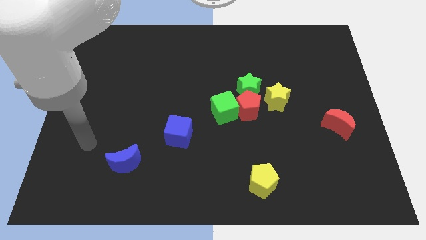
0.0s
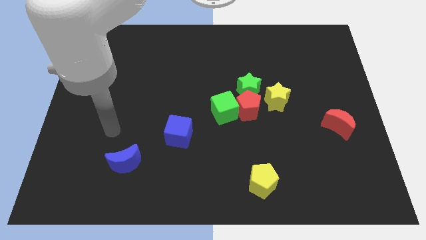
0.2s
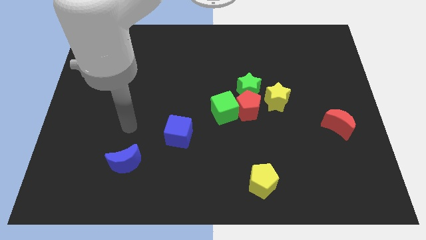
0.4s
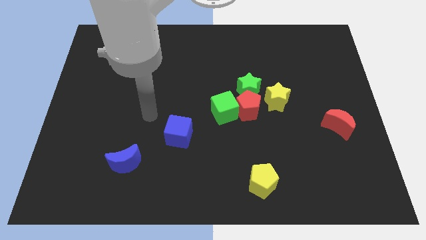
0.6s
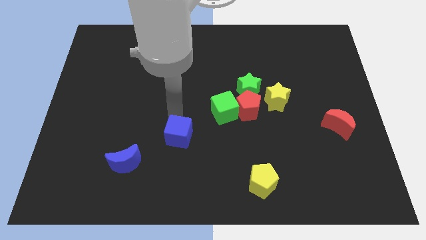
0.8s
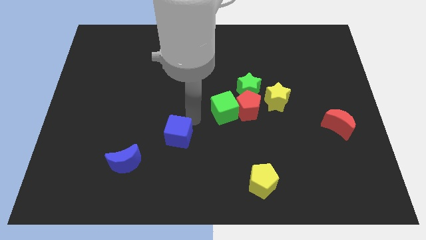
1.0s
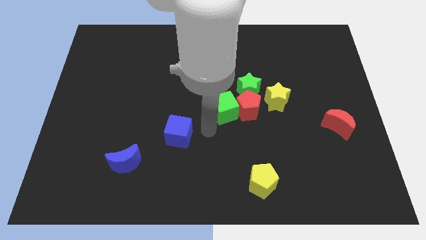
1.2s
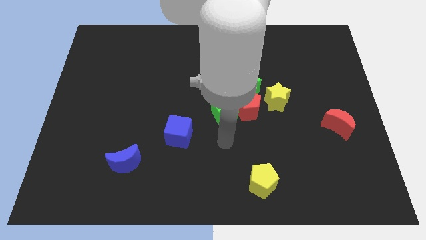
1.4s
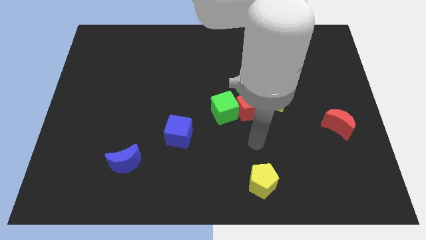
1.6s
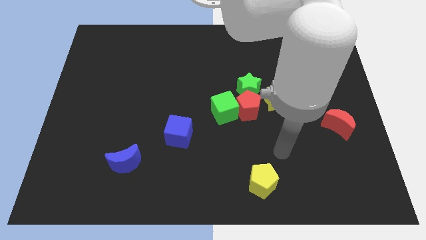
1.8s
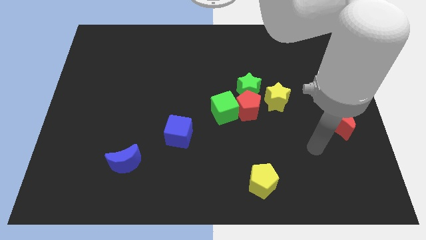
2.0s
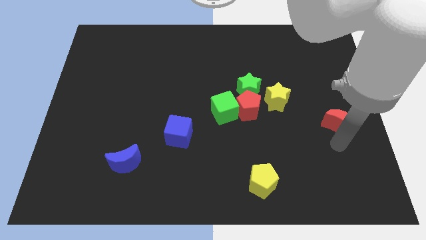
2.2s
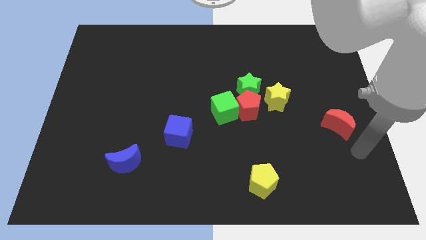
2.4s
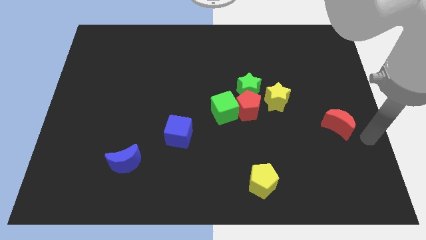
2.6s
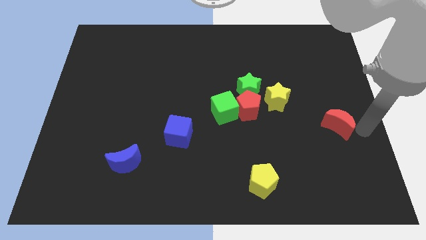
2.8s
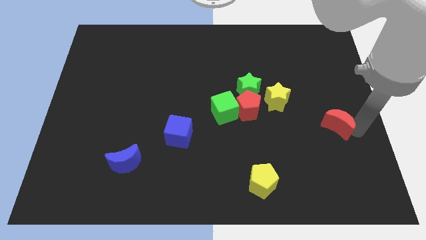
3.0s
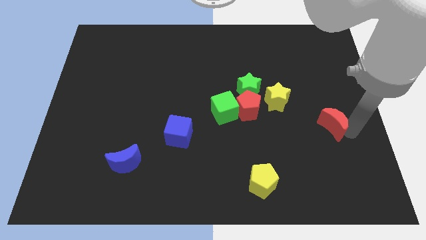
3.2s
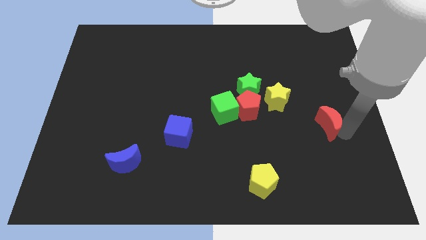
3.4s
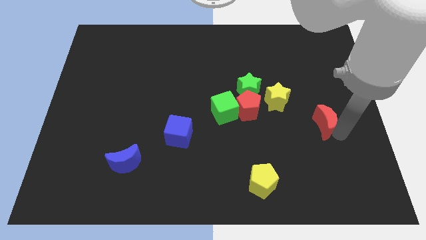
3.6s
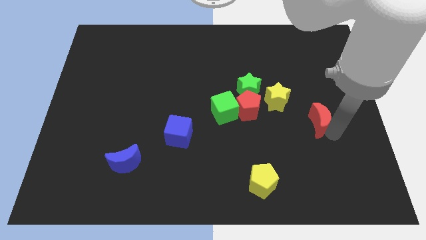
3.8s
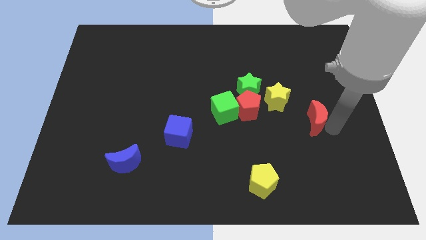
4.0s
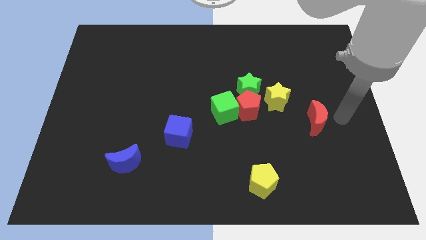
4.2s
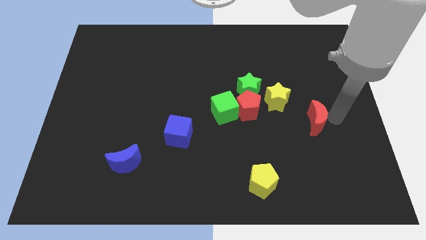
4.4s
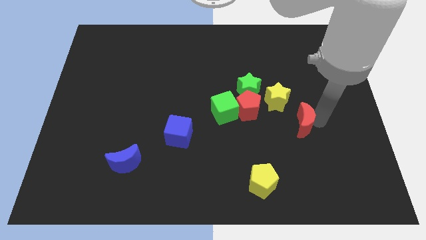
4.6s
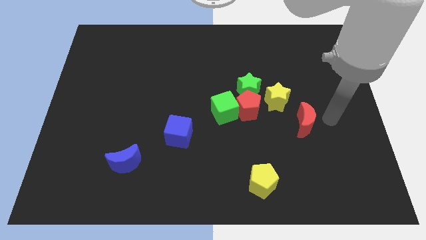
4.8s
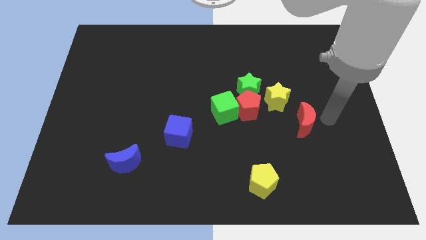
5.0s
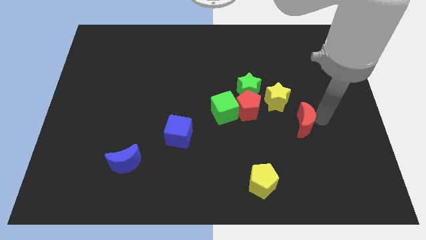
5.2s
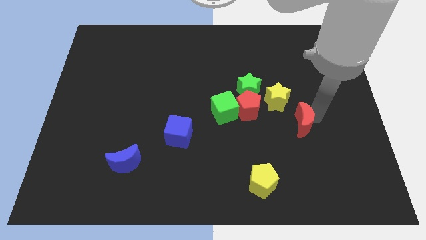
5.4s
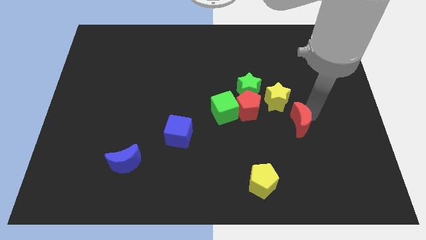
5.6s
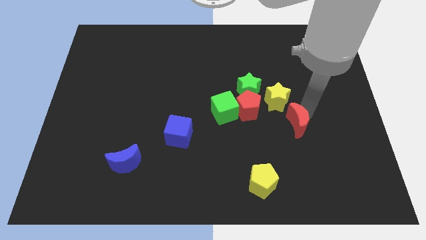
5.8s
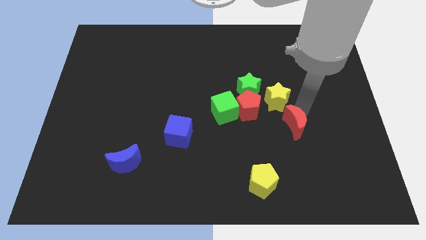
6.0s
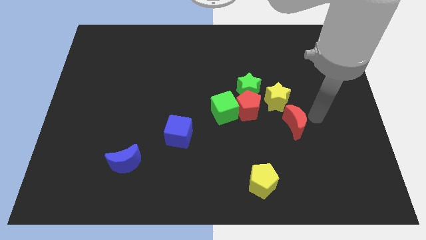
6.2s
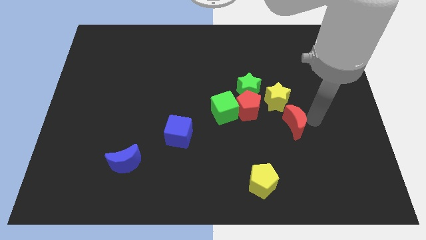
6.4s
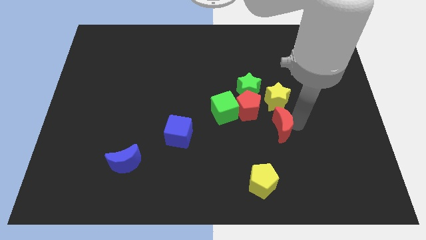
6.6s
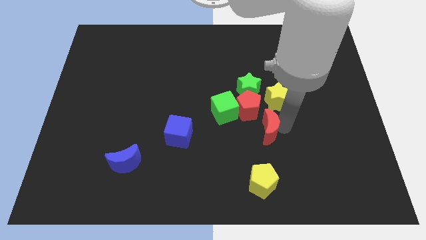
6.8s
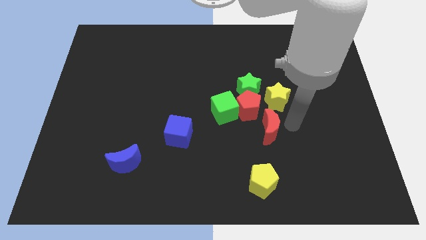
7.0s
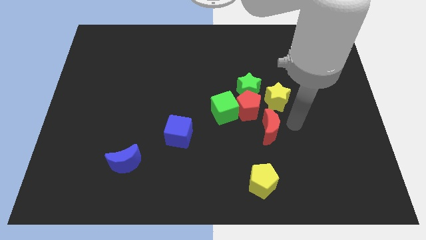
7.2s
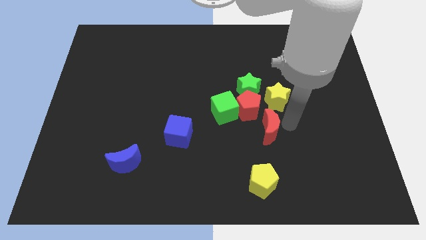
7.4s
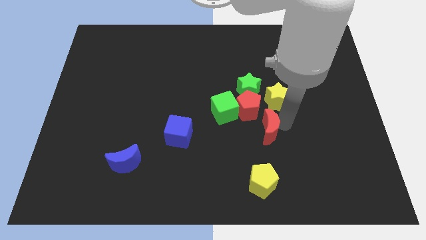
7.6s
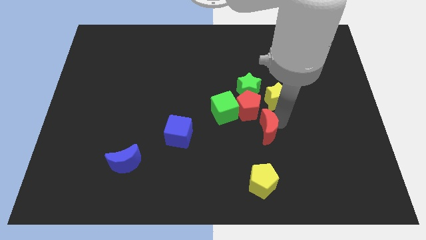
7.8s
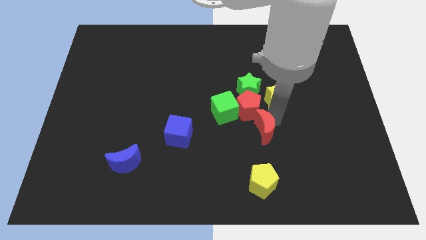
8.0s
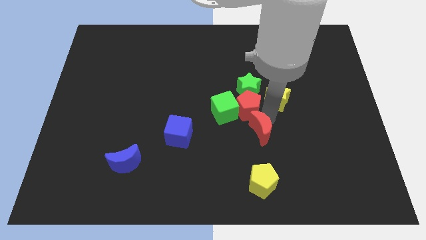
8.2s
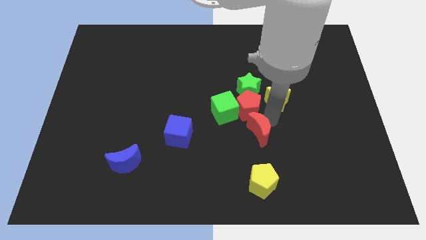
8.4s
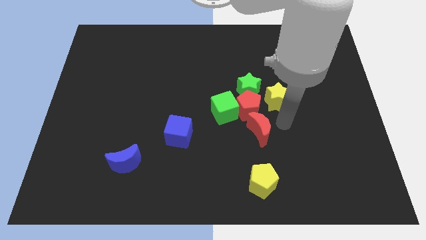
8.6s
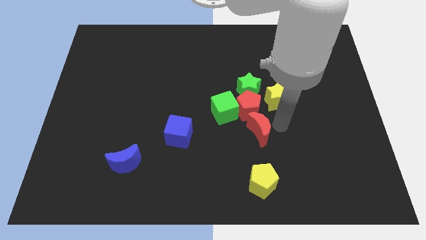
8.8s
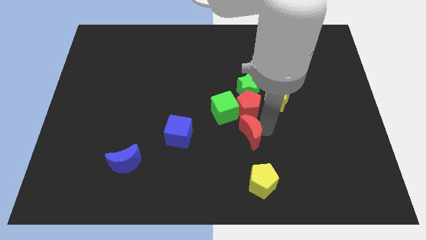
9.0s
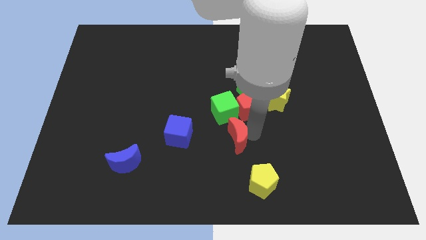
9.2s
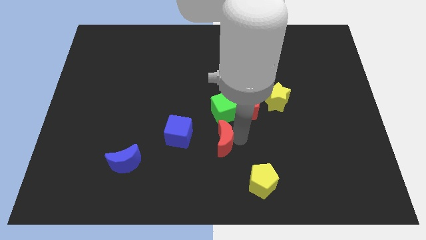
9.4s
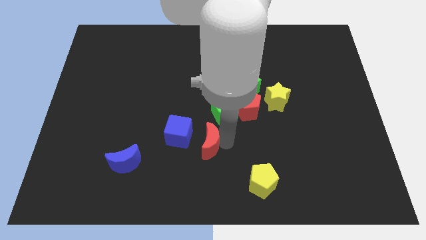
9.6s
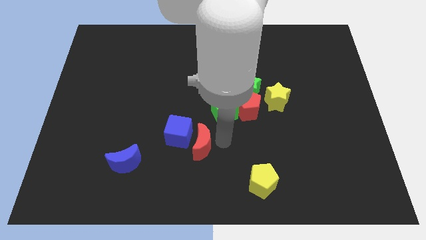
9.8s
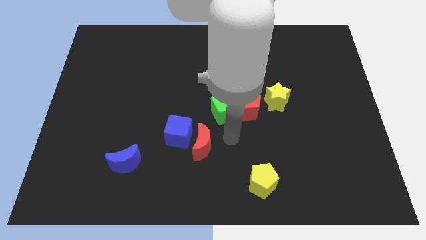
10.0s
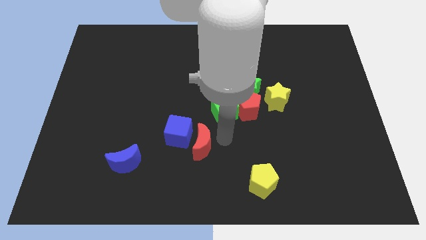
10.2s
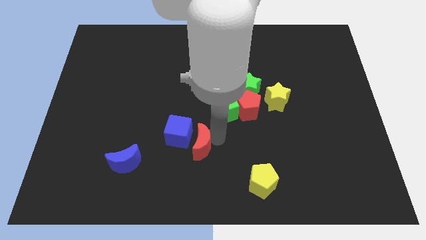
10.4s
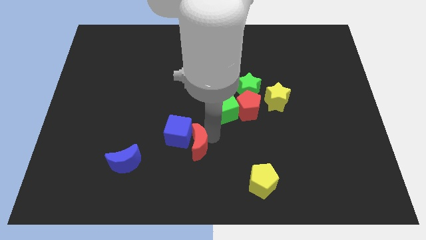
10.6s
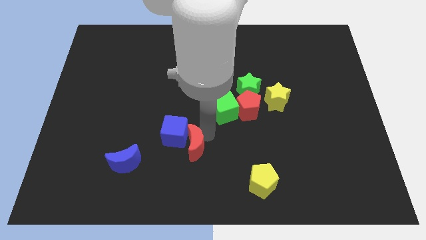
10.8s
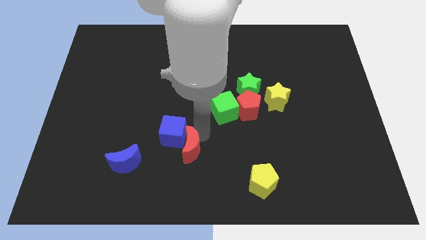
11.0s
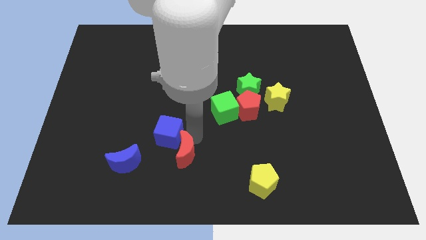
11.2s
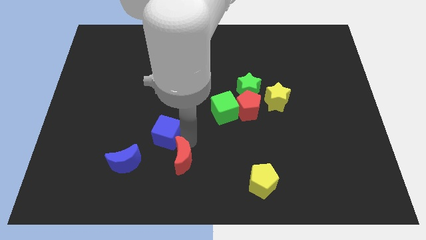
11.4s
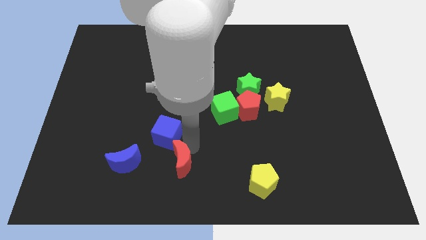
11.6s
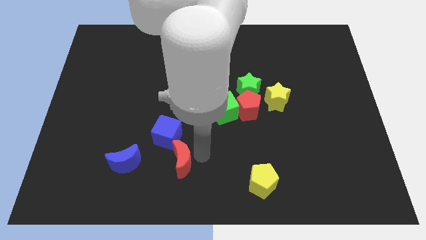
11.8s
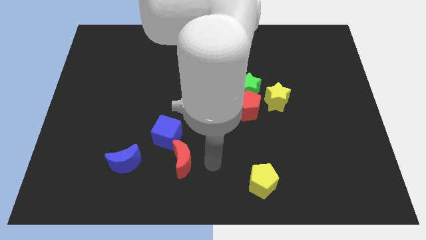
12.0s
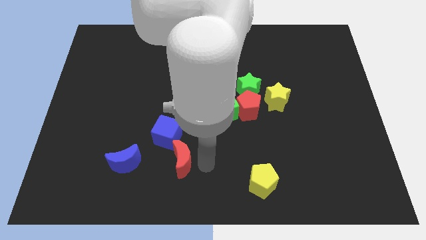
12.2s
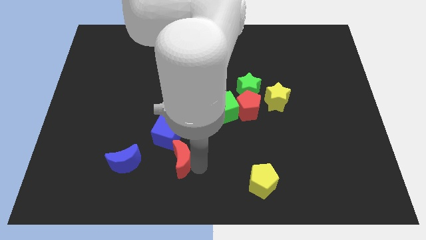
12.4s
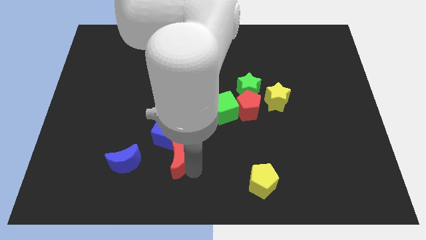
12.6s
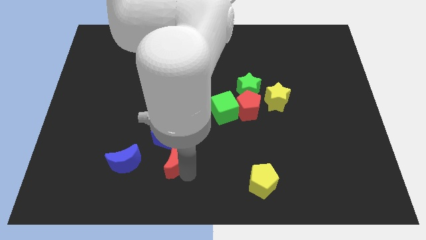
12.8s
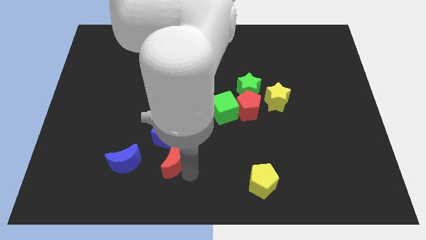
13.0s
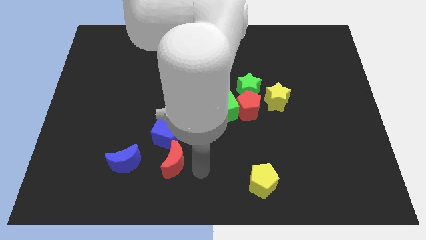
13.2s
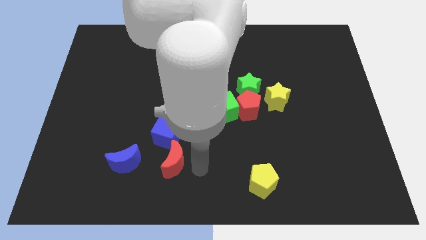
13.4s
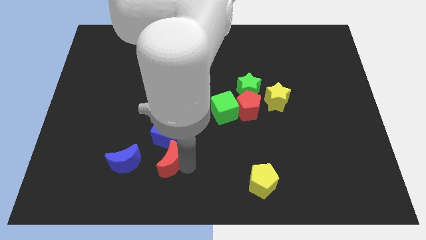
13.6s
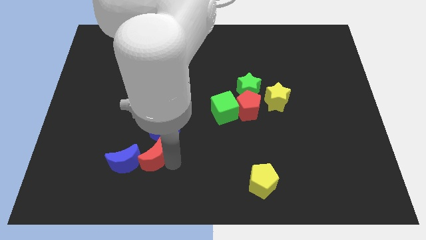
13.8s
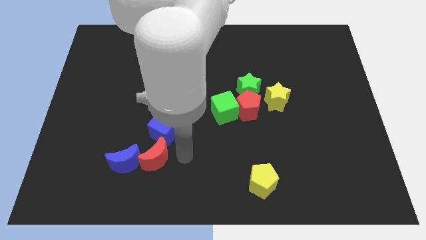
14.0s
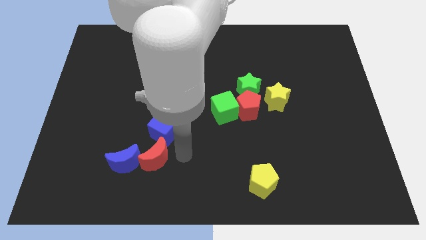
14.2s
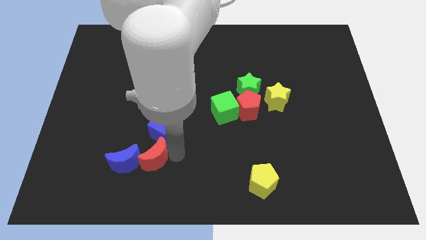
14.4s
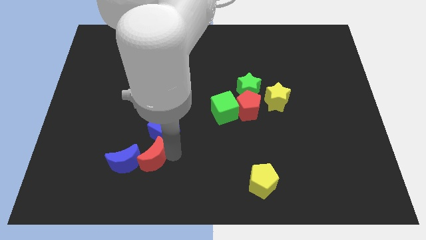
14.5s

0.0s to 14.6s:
push the red moon to the blue moon
